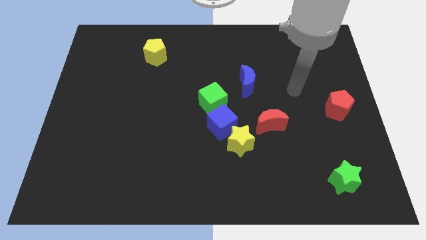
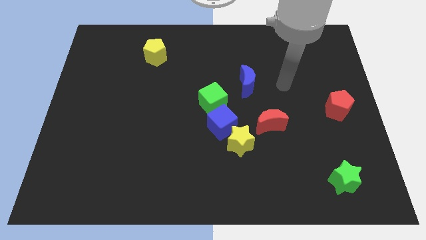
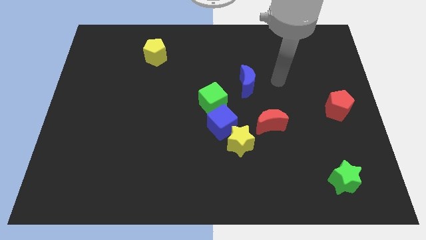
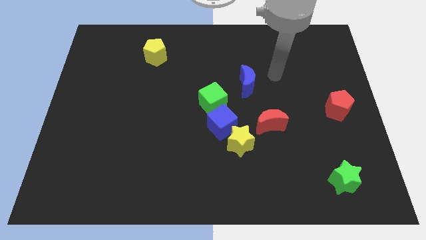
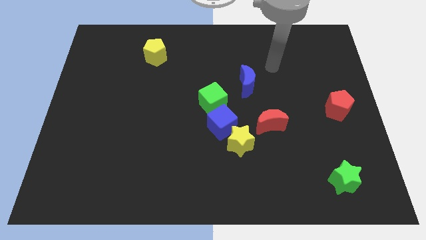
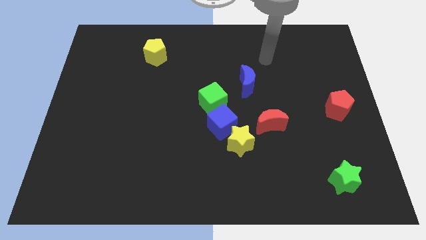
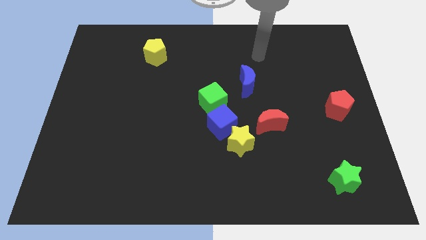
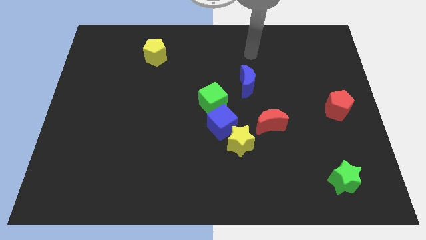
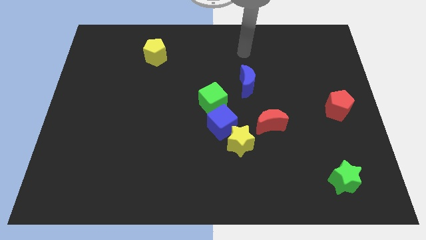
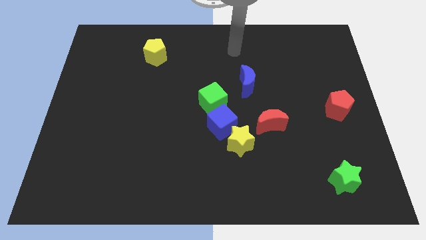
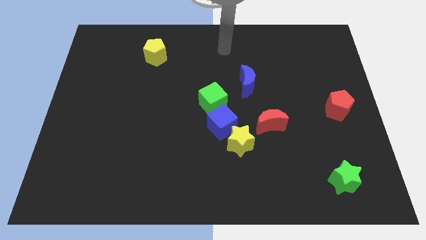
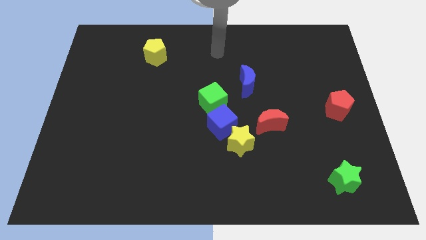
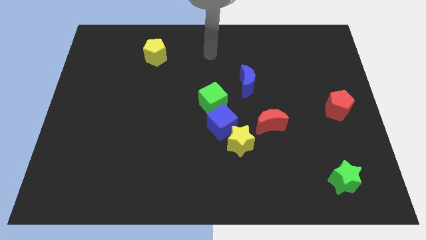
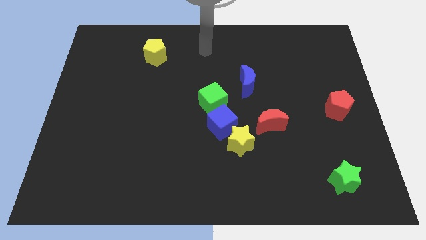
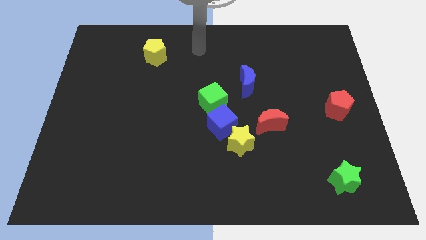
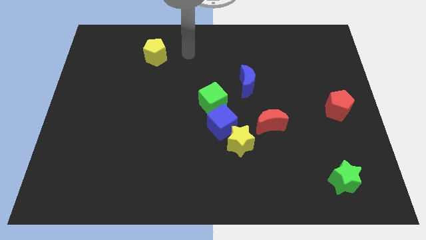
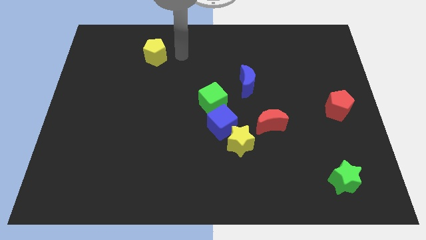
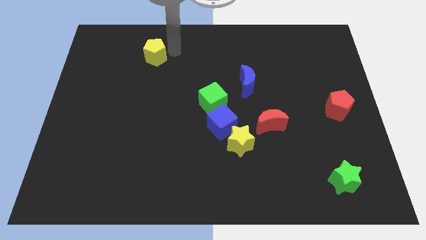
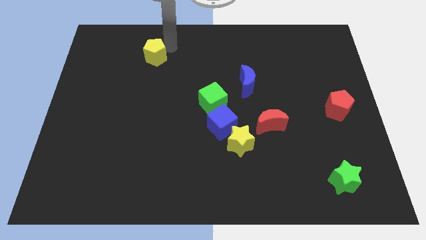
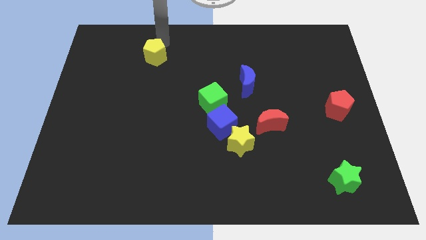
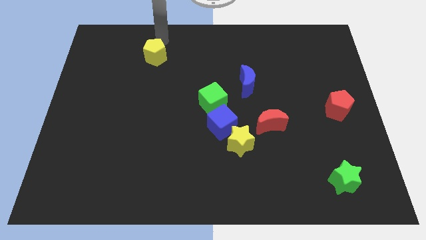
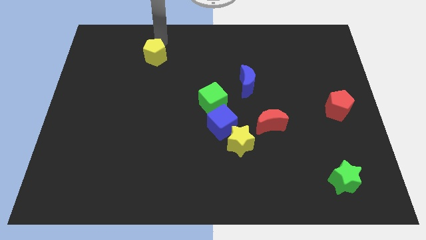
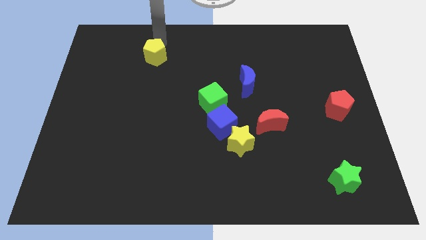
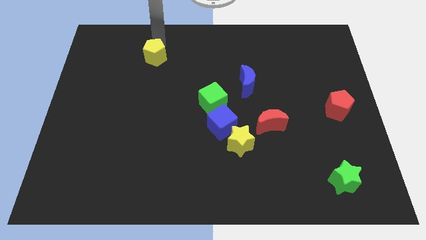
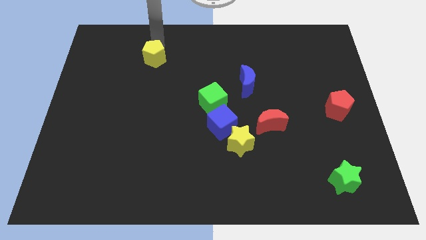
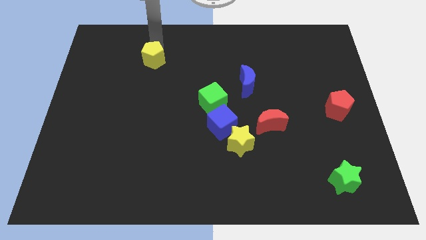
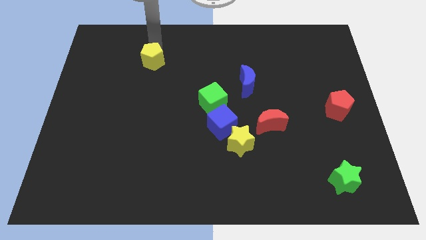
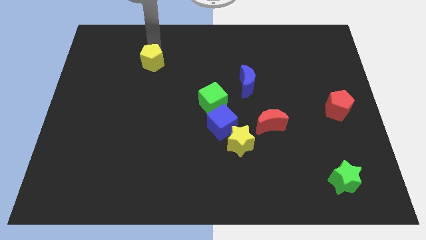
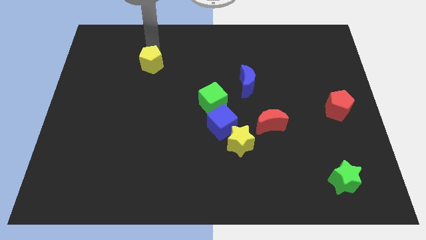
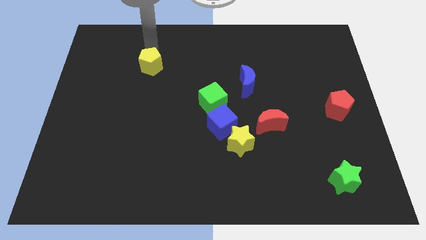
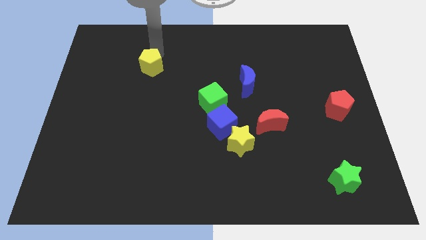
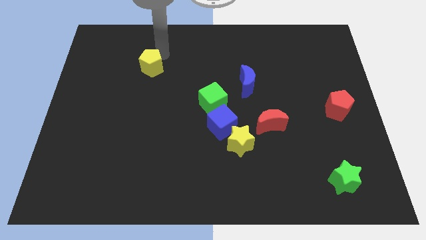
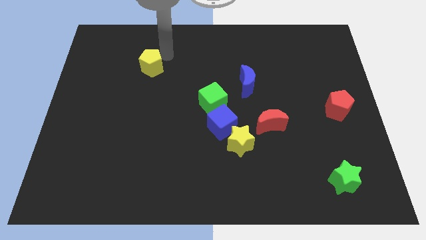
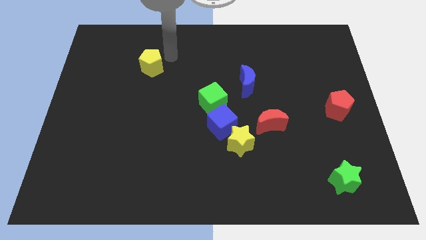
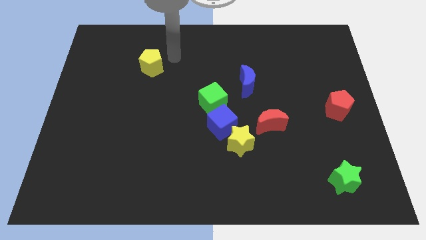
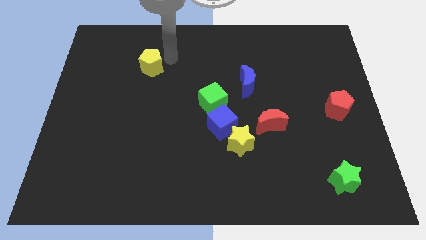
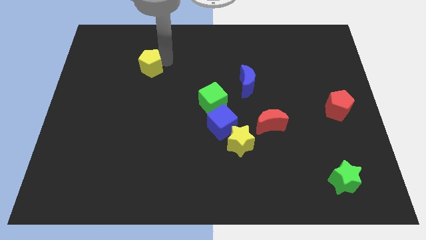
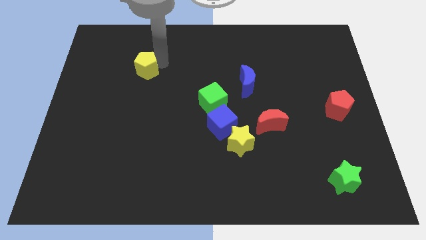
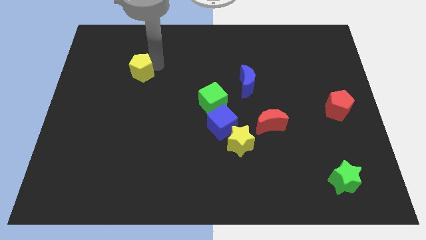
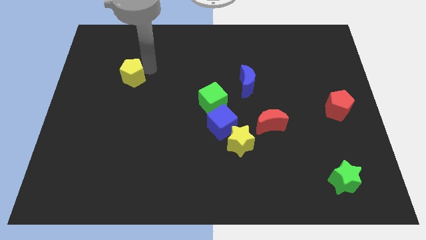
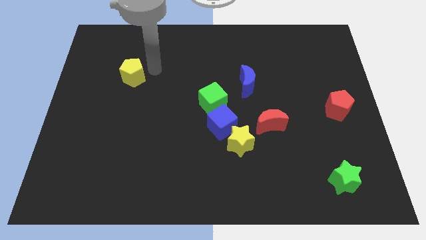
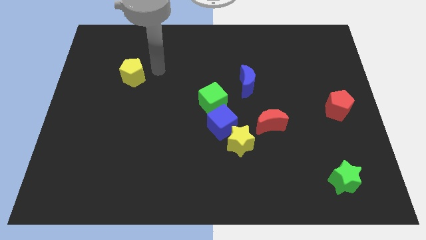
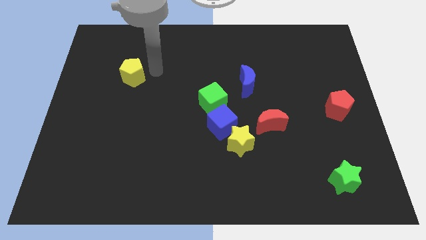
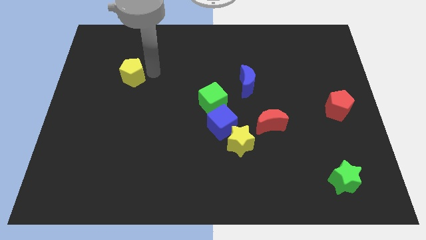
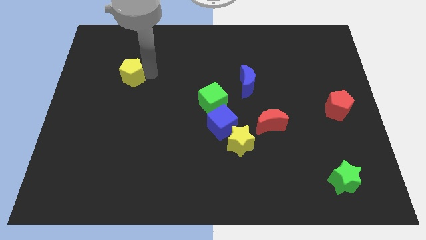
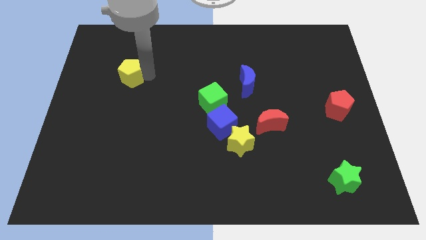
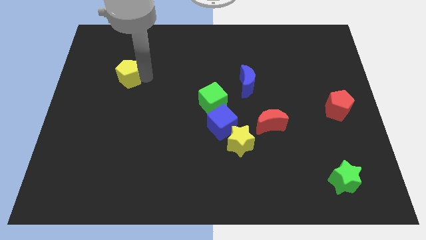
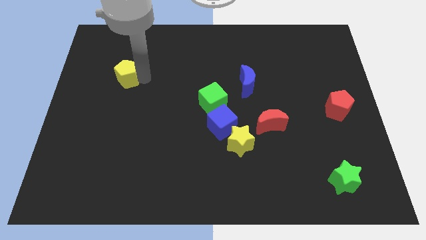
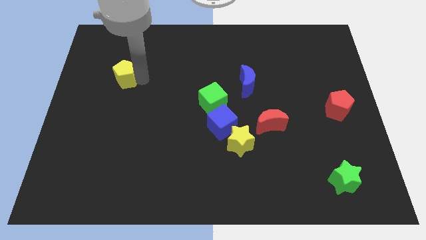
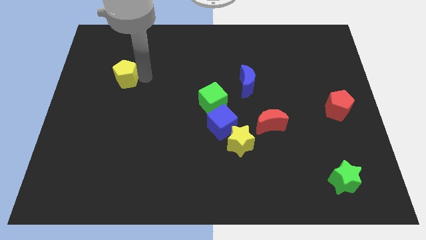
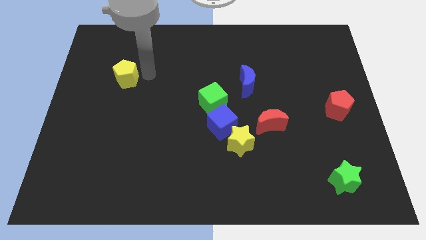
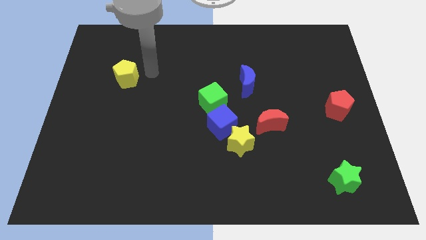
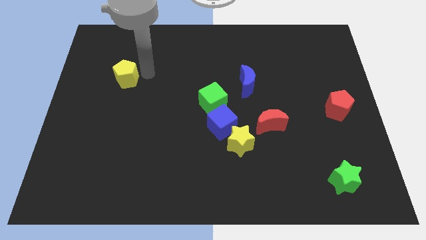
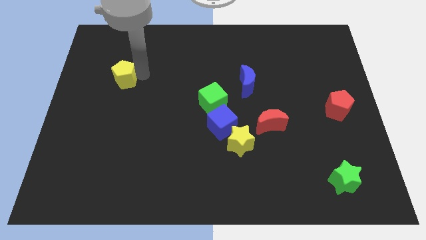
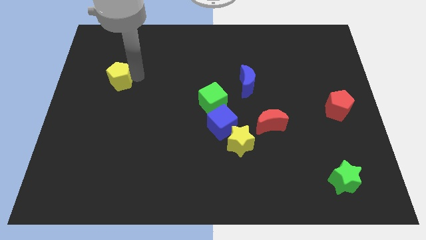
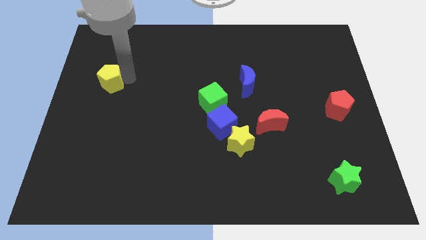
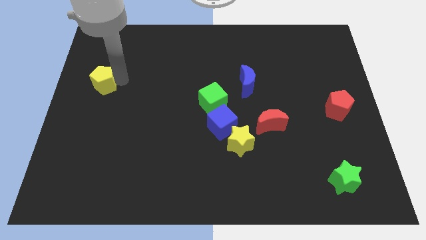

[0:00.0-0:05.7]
put the yellow pentagon to the left side of the board

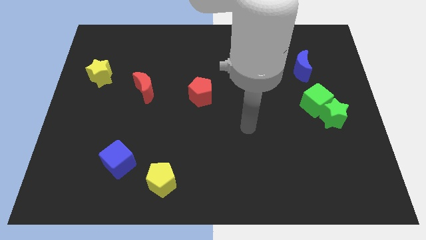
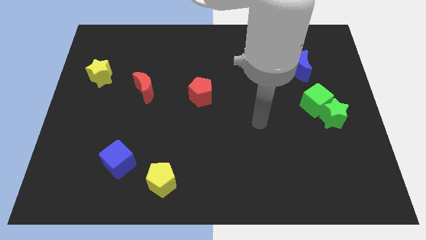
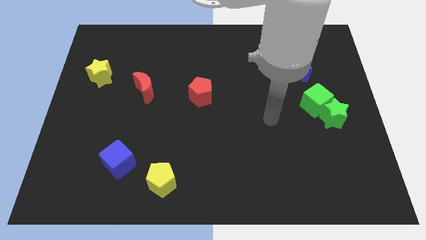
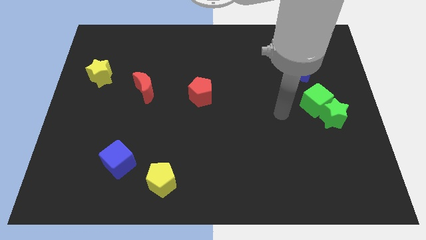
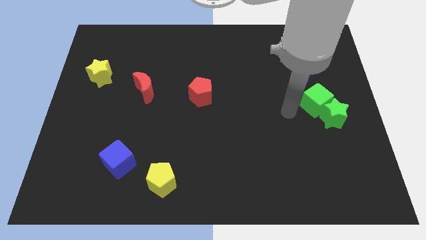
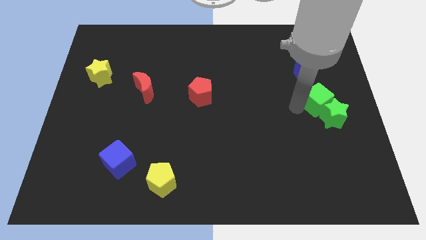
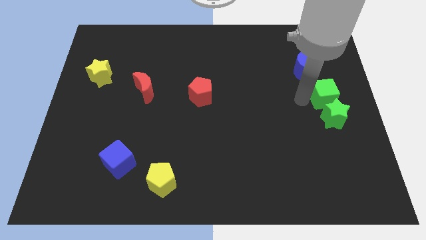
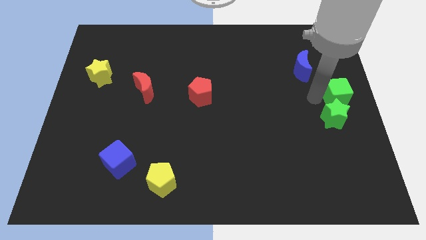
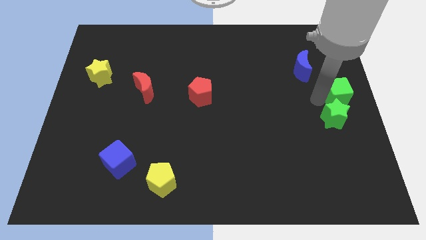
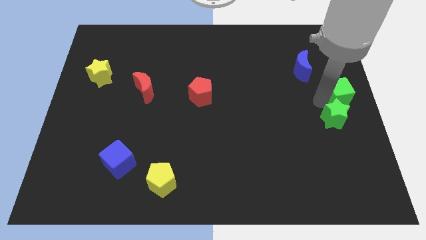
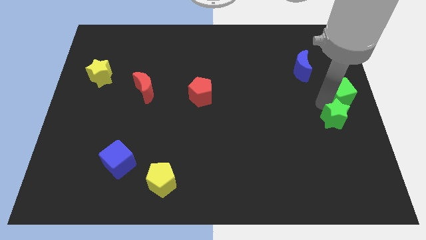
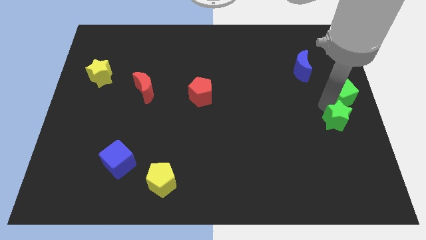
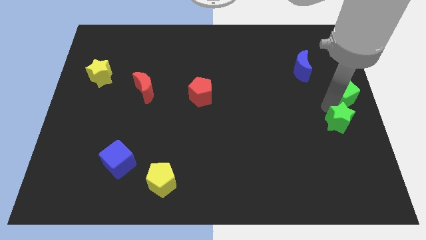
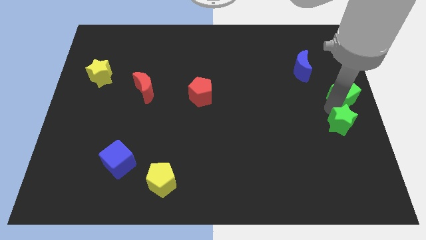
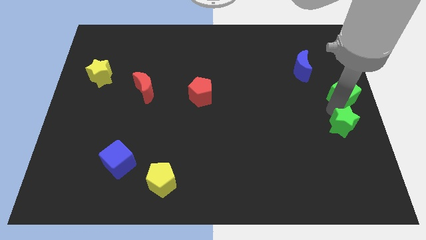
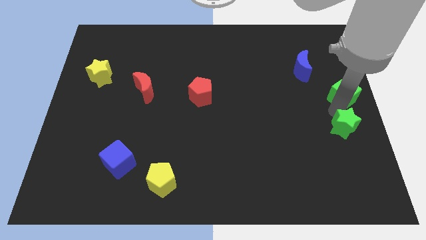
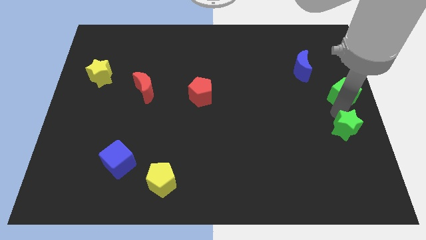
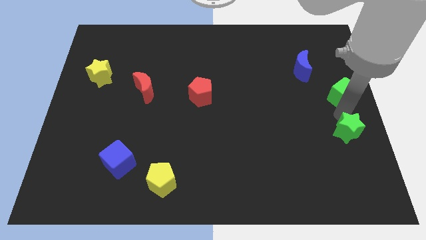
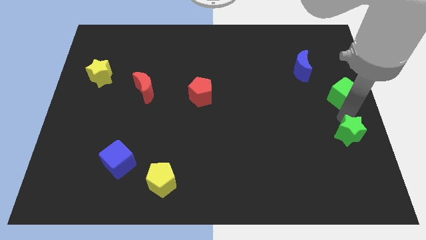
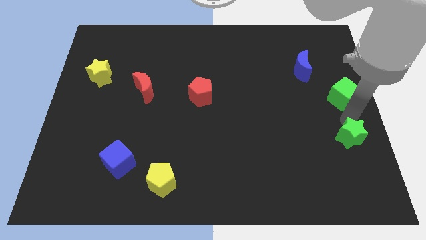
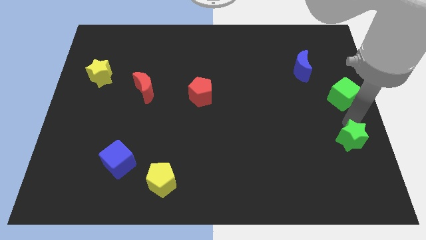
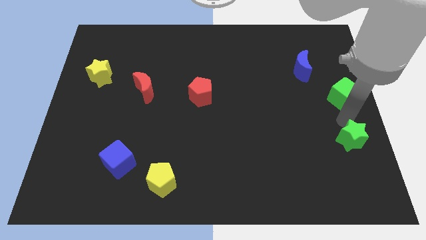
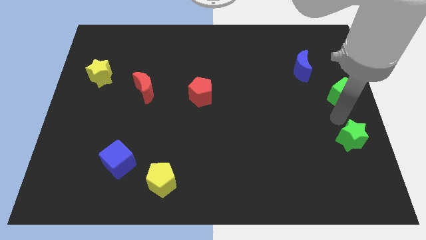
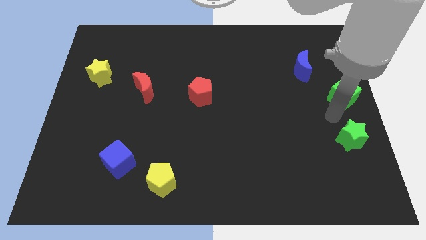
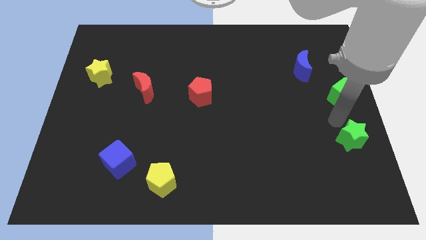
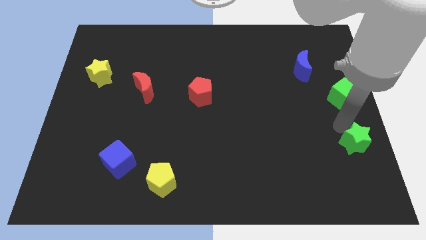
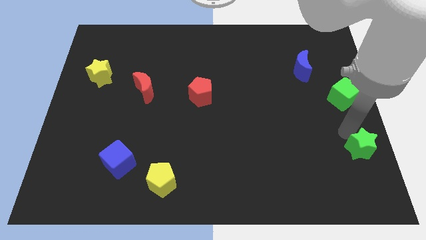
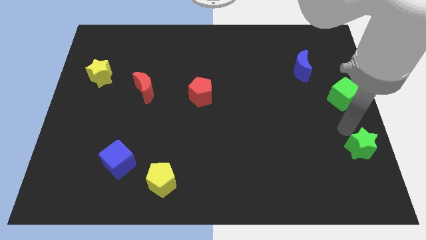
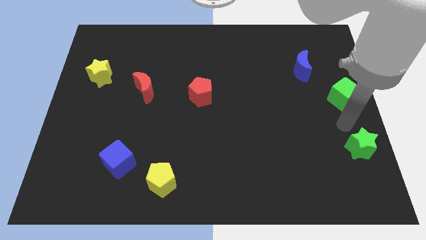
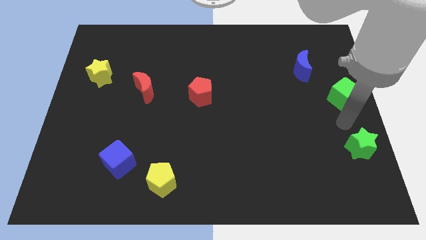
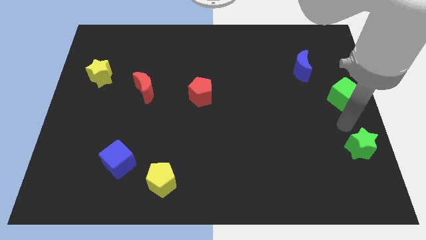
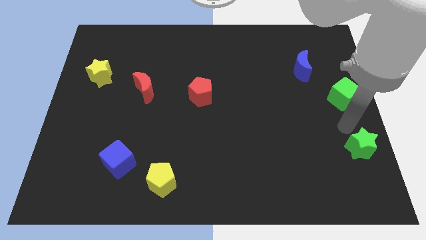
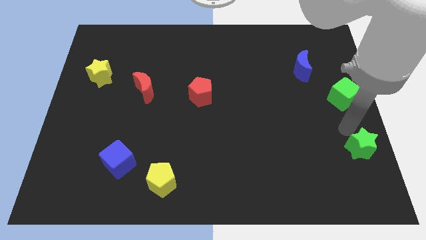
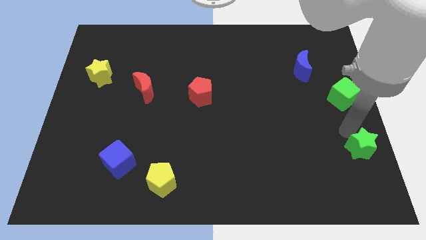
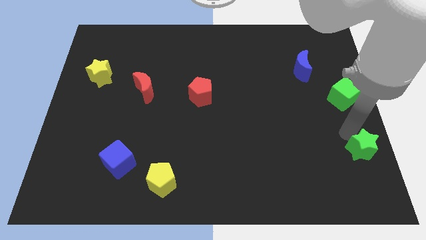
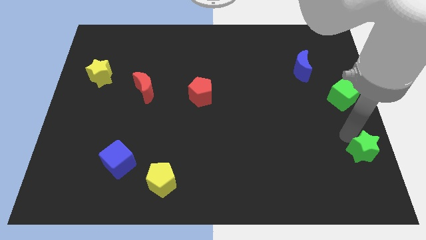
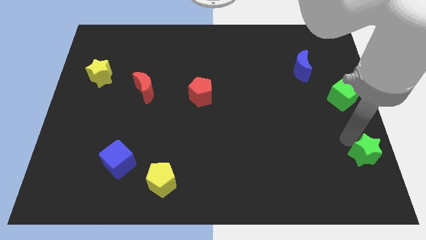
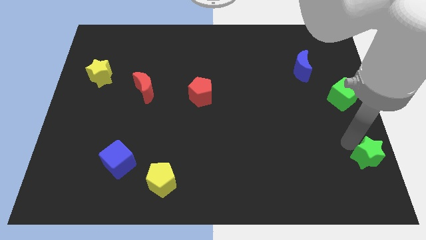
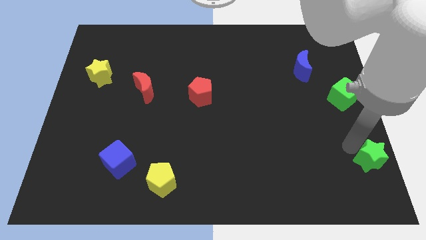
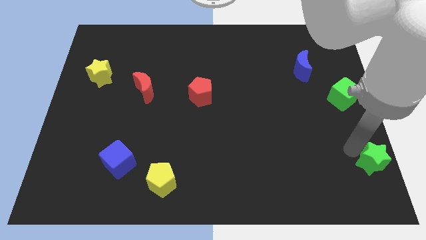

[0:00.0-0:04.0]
put the green star to the bottom right of the board
